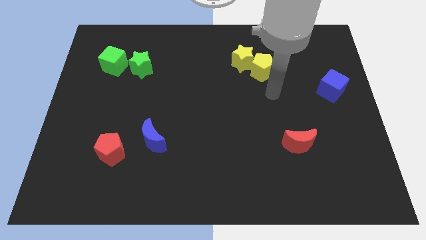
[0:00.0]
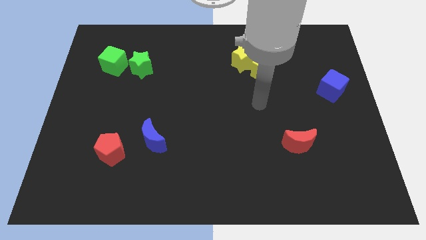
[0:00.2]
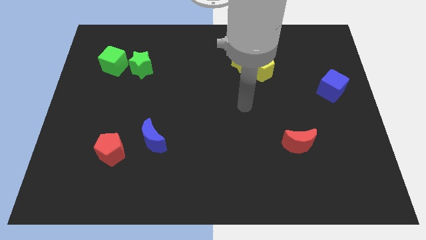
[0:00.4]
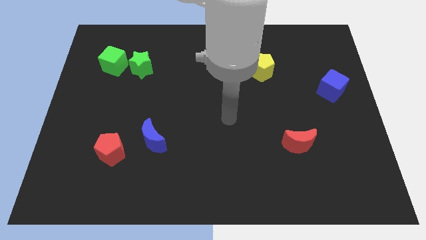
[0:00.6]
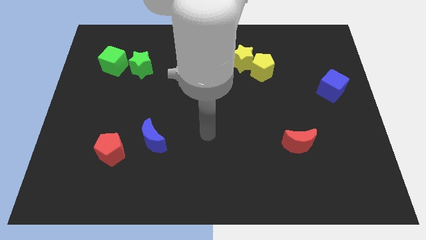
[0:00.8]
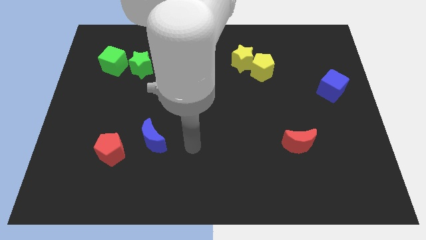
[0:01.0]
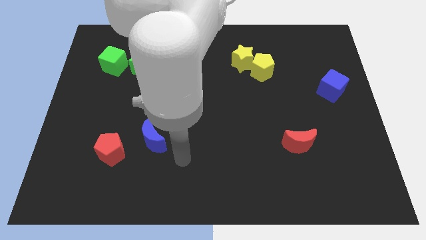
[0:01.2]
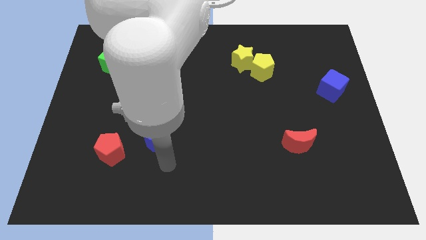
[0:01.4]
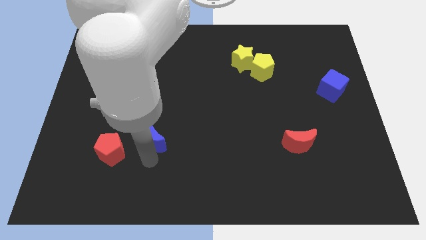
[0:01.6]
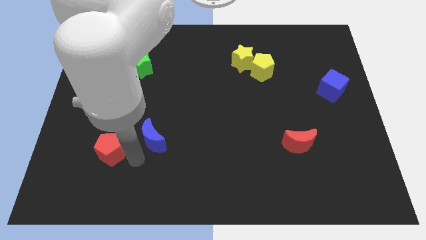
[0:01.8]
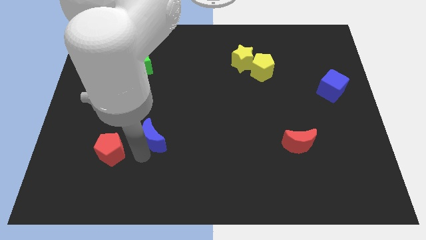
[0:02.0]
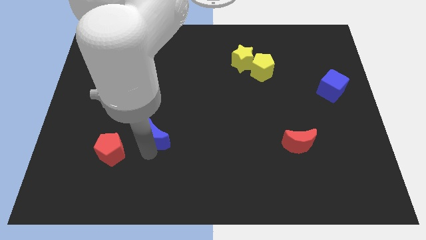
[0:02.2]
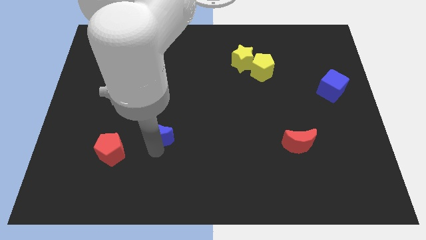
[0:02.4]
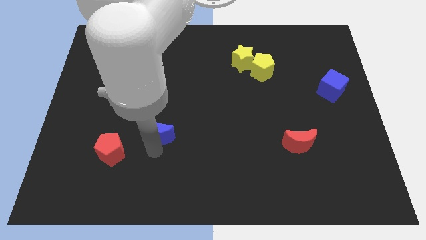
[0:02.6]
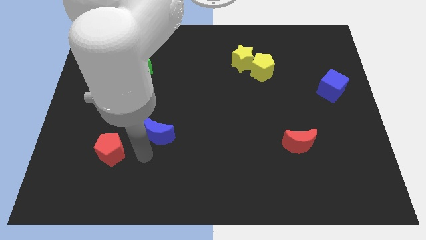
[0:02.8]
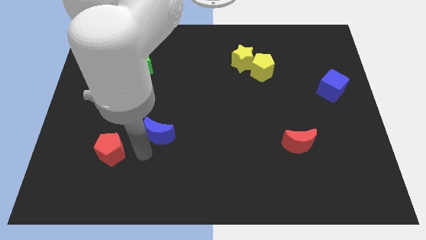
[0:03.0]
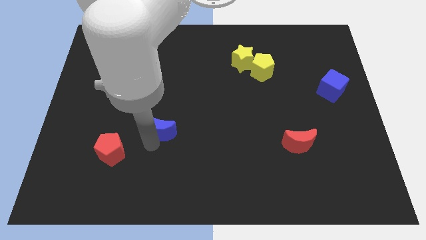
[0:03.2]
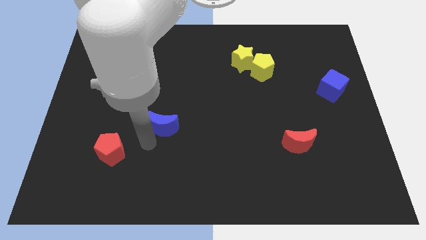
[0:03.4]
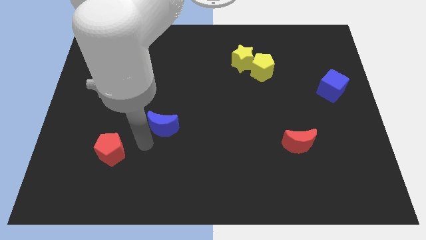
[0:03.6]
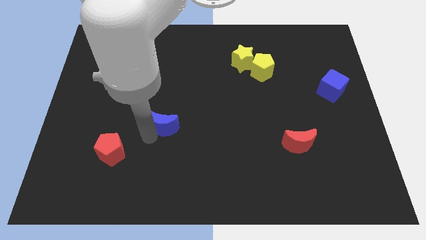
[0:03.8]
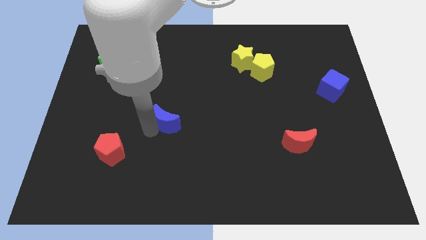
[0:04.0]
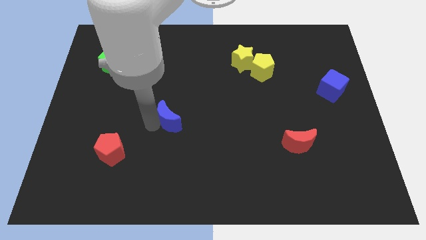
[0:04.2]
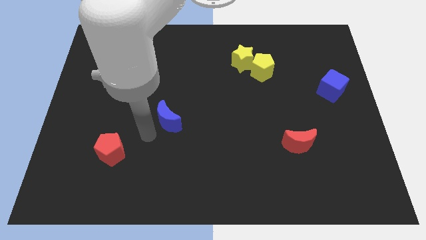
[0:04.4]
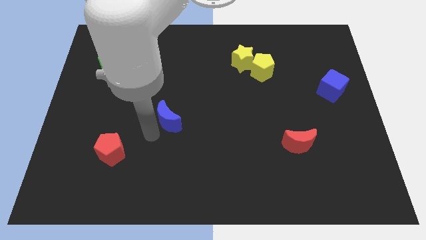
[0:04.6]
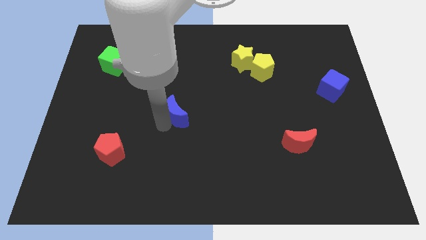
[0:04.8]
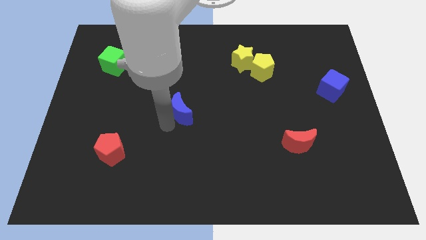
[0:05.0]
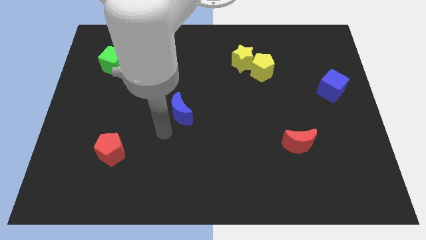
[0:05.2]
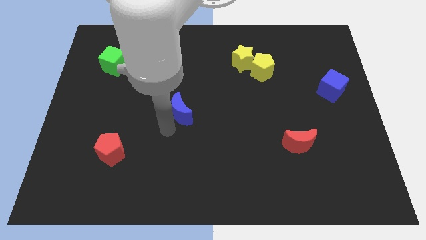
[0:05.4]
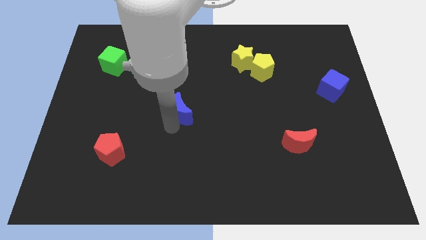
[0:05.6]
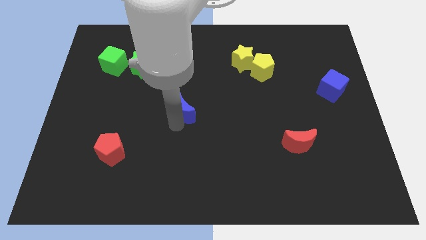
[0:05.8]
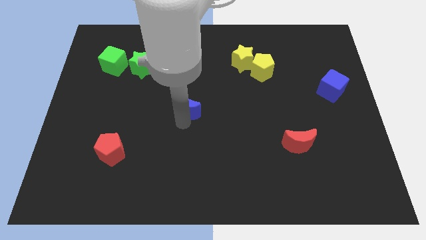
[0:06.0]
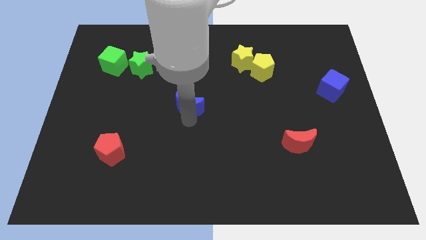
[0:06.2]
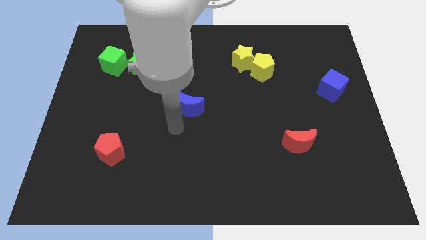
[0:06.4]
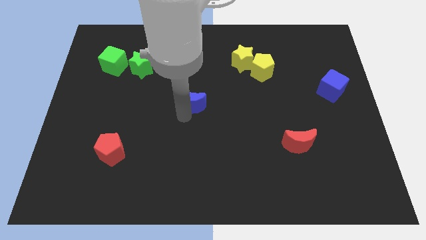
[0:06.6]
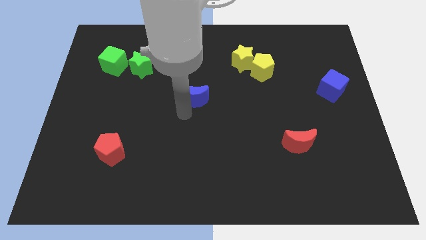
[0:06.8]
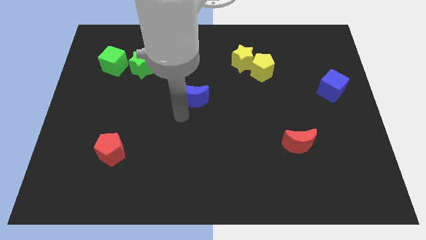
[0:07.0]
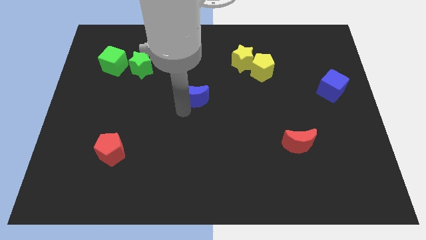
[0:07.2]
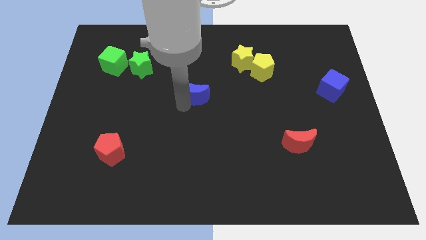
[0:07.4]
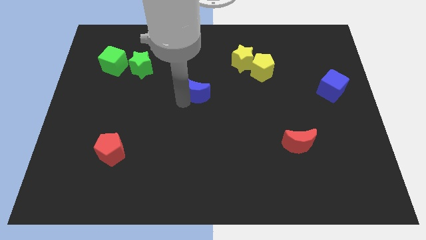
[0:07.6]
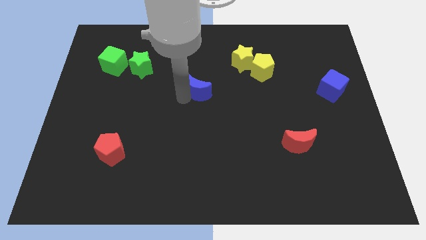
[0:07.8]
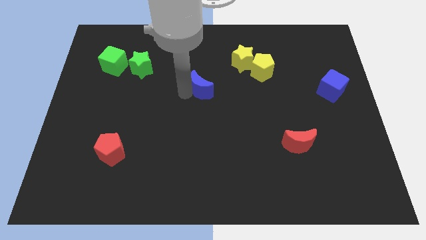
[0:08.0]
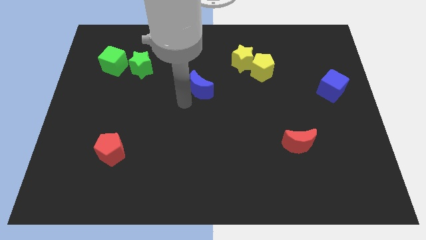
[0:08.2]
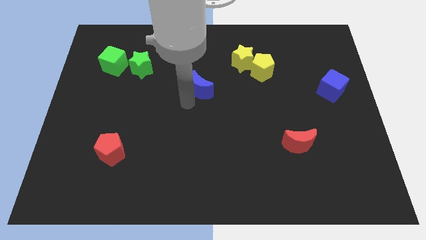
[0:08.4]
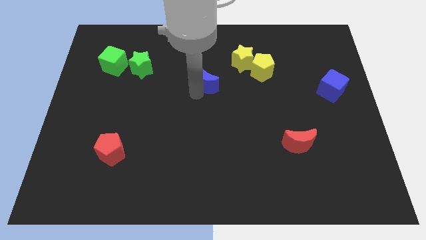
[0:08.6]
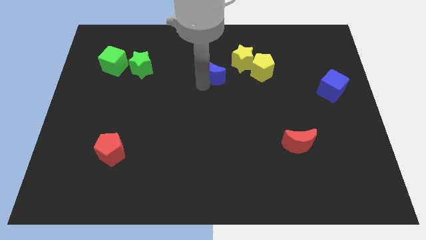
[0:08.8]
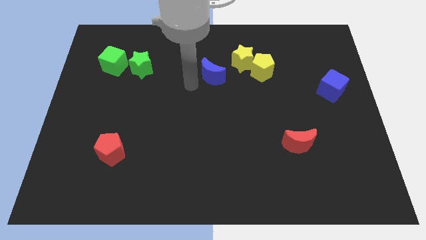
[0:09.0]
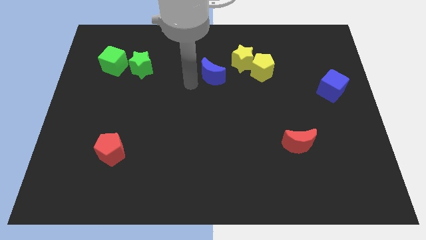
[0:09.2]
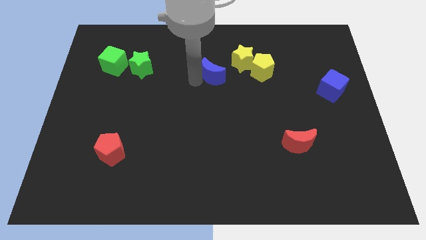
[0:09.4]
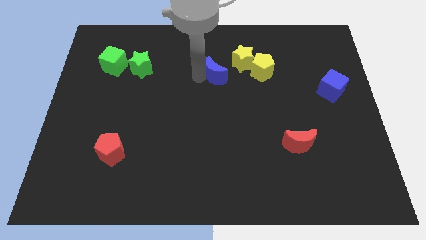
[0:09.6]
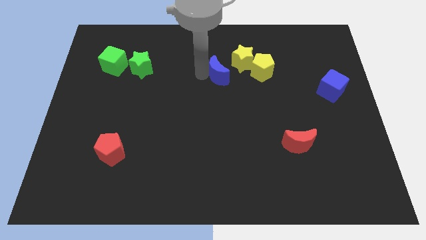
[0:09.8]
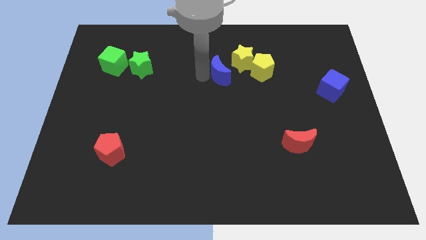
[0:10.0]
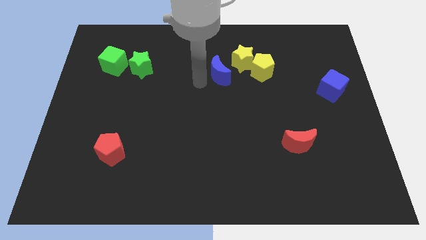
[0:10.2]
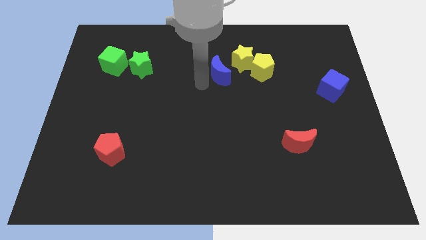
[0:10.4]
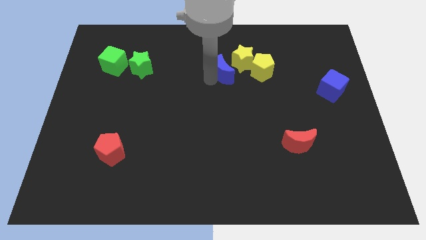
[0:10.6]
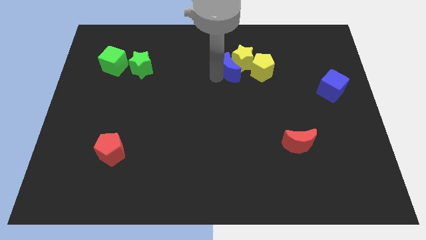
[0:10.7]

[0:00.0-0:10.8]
push the blue moon next to the yellow star

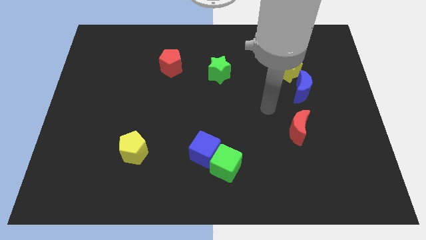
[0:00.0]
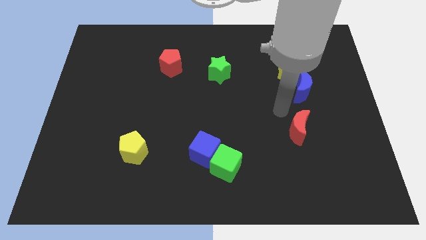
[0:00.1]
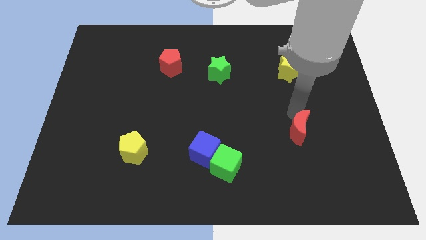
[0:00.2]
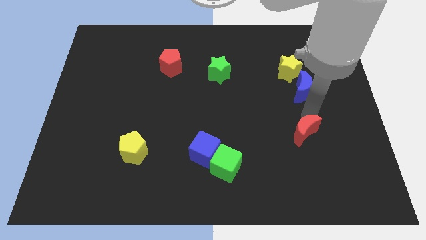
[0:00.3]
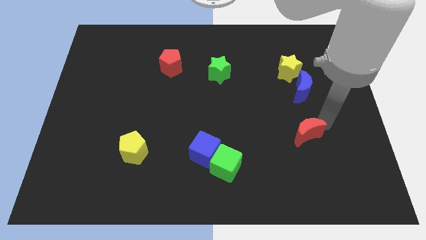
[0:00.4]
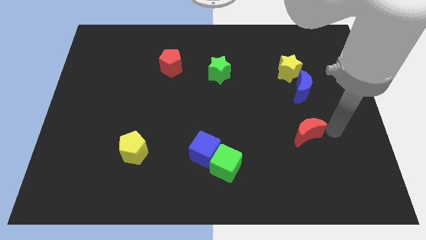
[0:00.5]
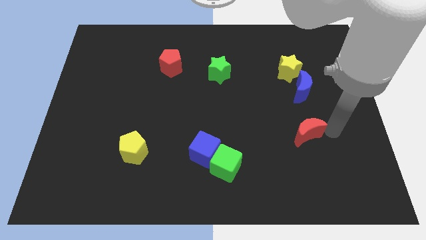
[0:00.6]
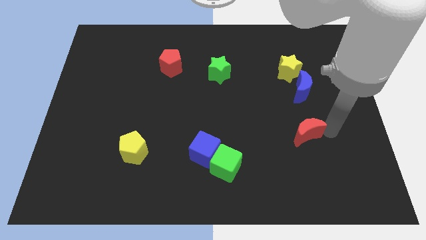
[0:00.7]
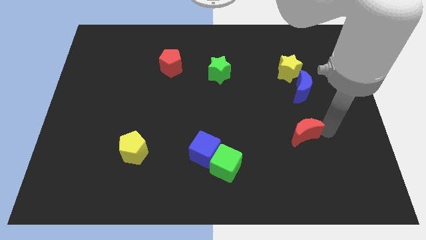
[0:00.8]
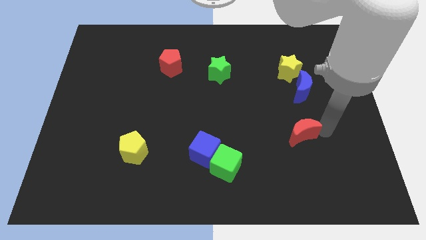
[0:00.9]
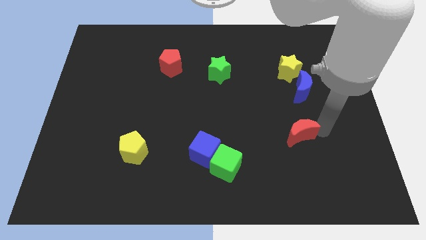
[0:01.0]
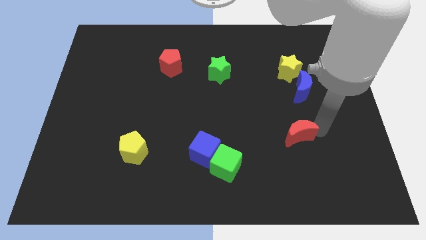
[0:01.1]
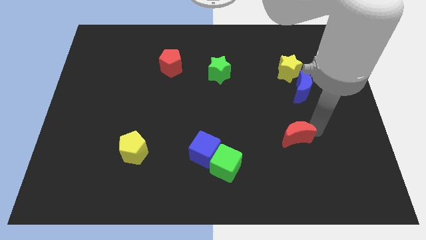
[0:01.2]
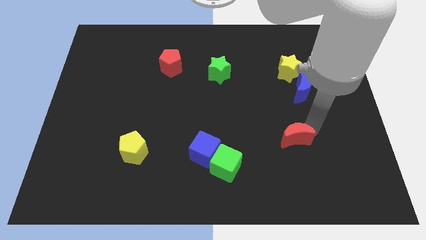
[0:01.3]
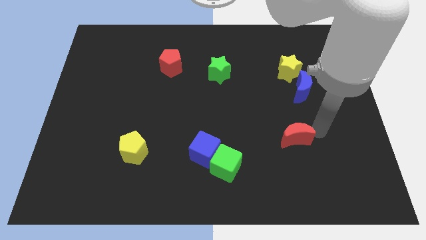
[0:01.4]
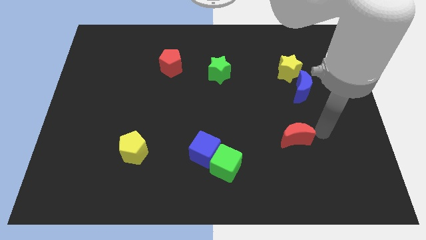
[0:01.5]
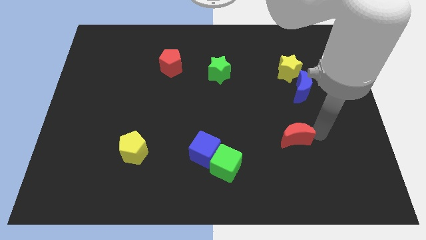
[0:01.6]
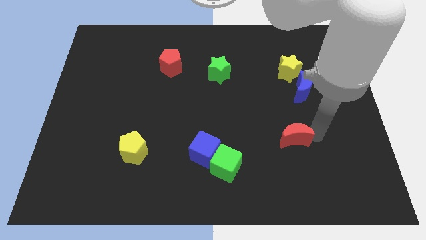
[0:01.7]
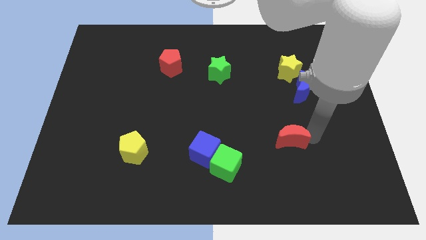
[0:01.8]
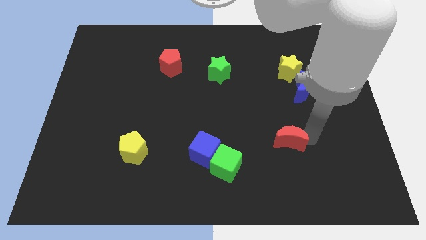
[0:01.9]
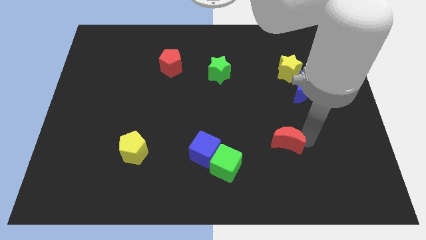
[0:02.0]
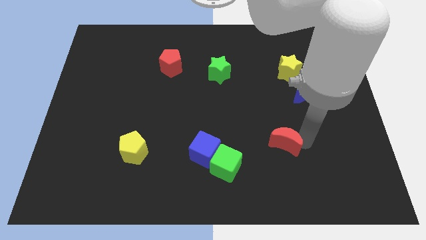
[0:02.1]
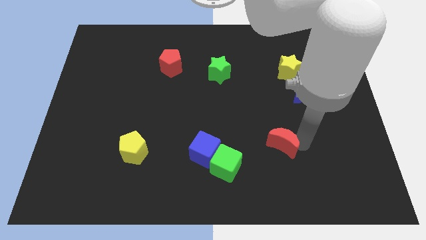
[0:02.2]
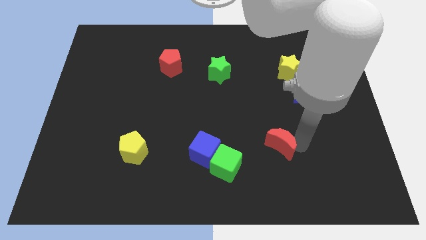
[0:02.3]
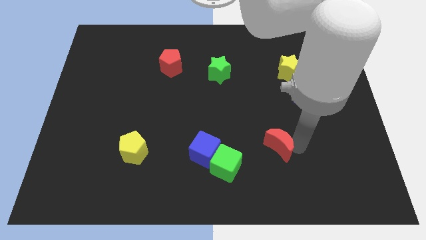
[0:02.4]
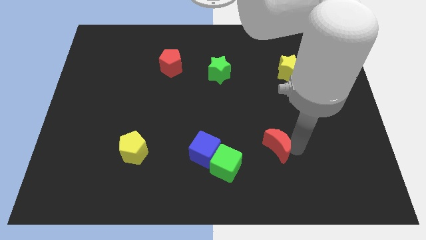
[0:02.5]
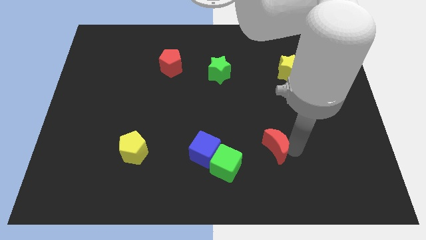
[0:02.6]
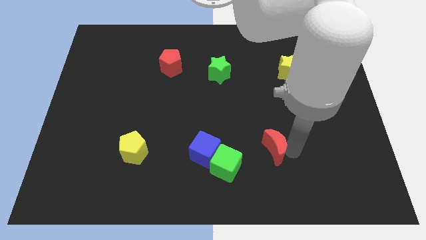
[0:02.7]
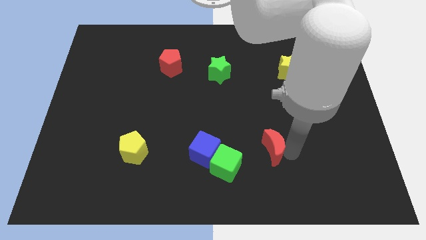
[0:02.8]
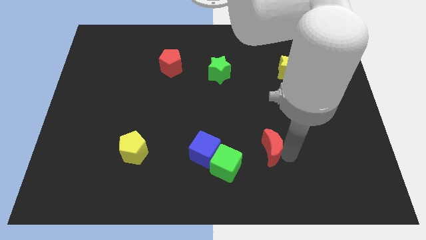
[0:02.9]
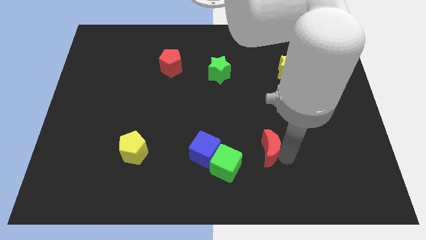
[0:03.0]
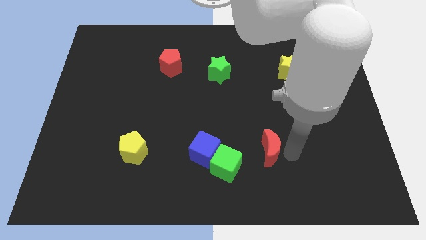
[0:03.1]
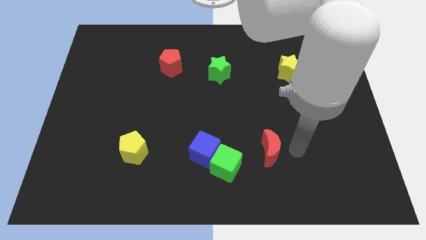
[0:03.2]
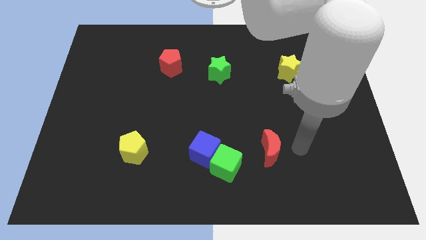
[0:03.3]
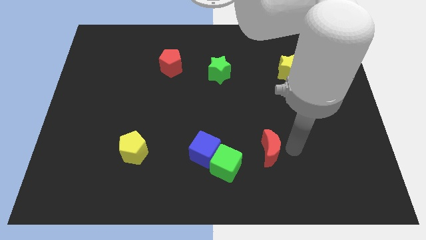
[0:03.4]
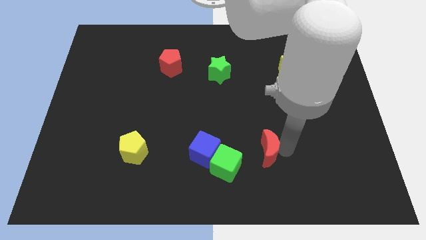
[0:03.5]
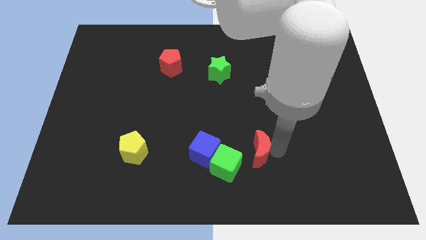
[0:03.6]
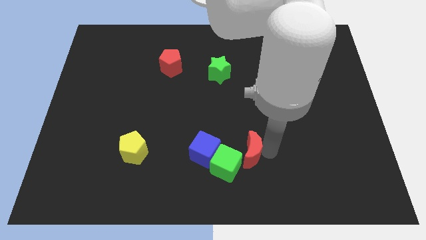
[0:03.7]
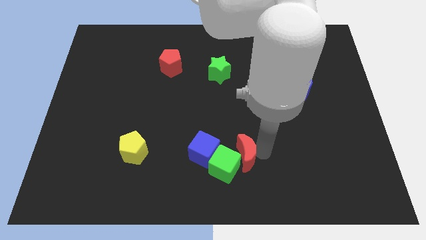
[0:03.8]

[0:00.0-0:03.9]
put the red moon next to the green cube
